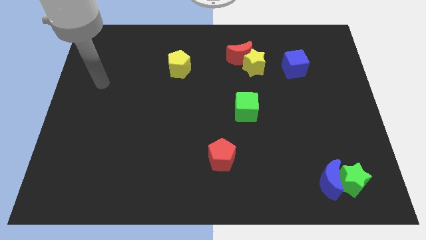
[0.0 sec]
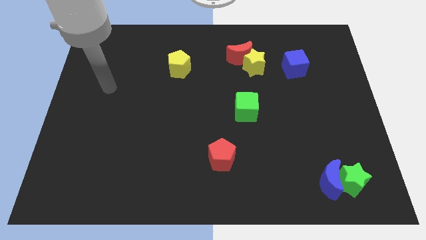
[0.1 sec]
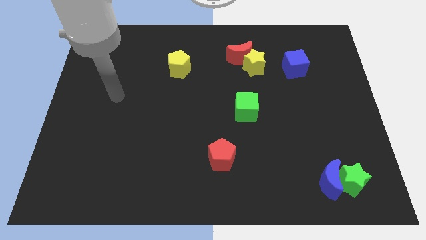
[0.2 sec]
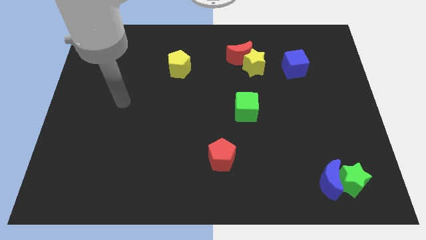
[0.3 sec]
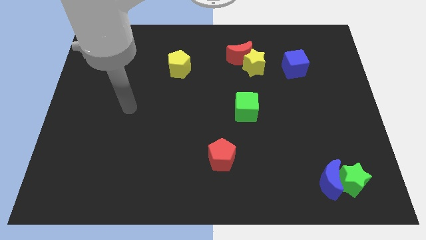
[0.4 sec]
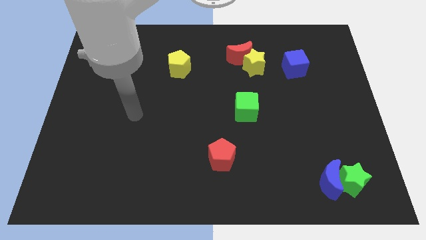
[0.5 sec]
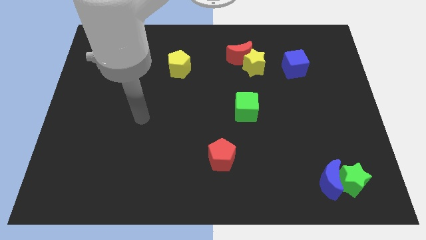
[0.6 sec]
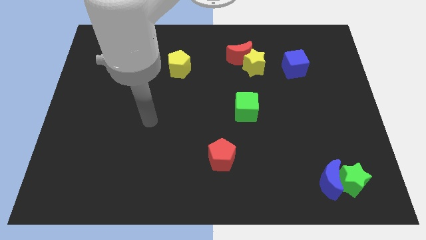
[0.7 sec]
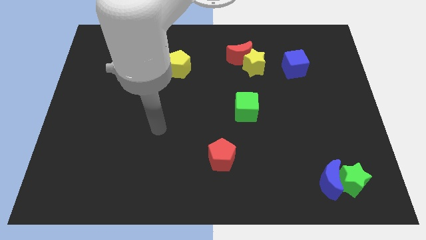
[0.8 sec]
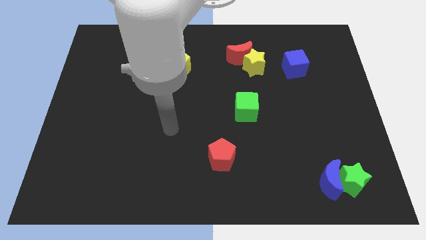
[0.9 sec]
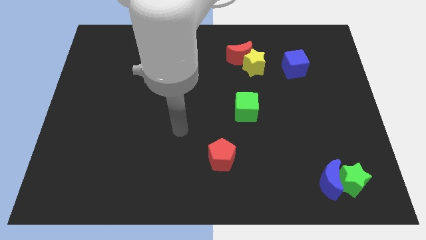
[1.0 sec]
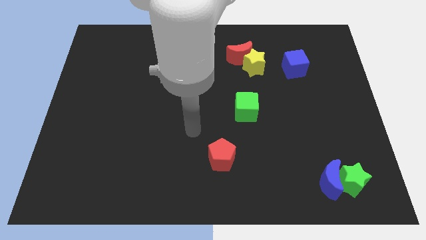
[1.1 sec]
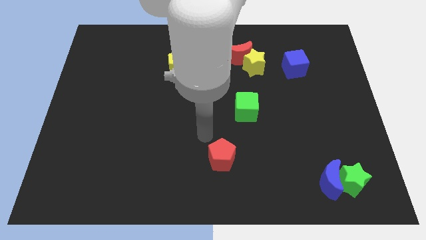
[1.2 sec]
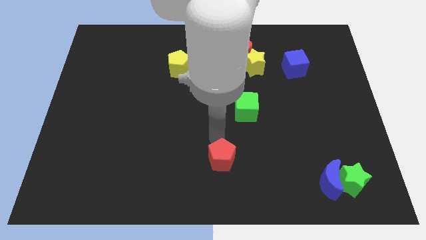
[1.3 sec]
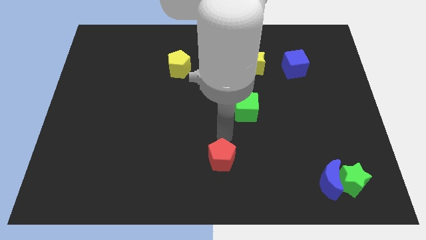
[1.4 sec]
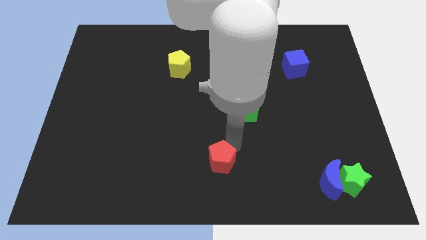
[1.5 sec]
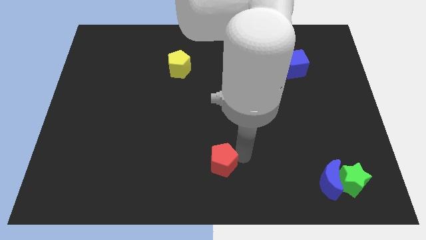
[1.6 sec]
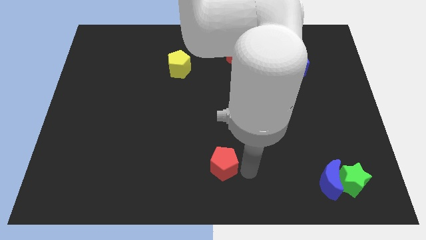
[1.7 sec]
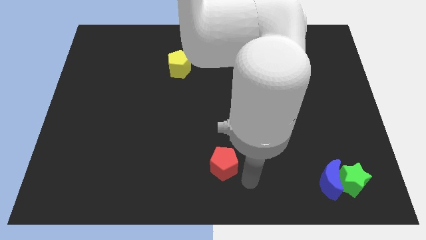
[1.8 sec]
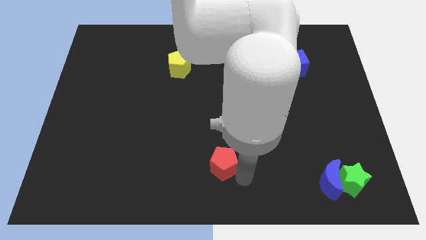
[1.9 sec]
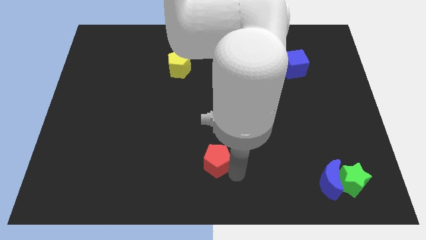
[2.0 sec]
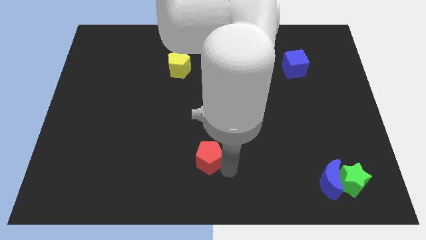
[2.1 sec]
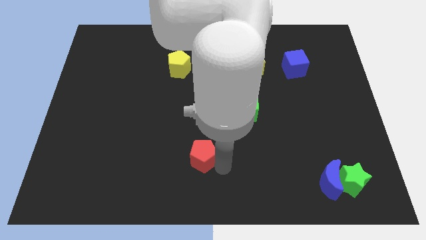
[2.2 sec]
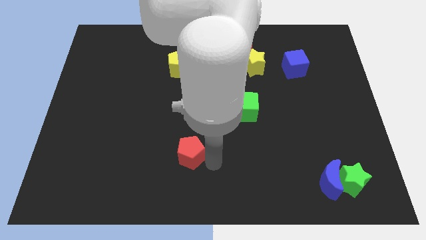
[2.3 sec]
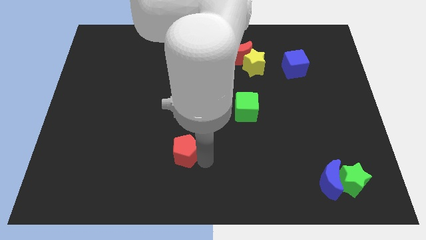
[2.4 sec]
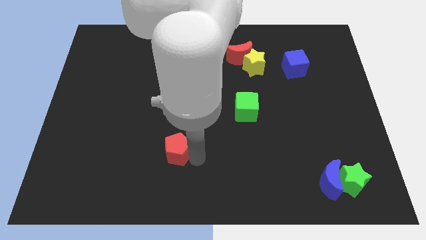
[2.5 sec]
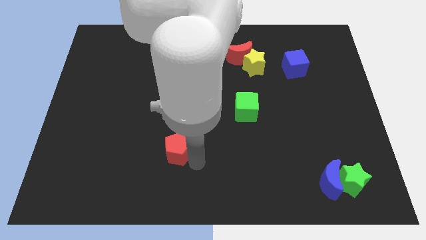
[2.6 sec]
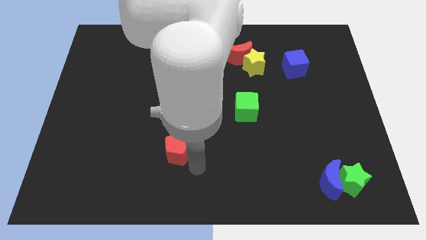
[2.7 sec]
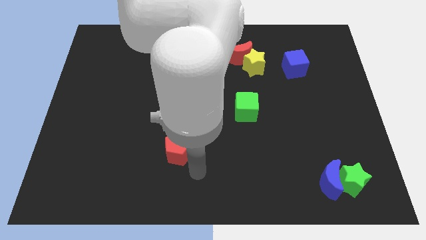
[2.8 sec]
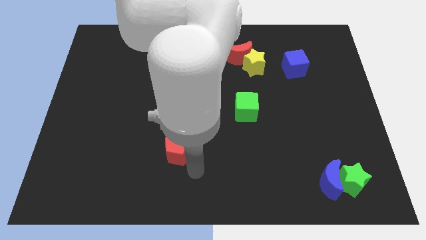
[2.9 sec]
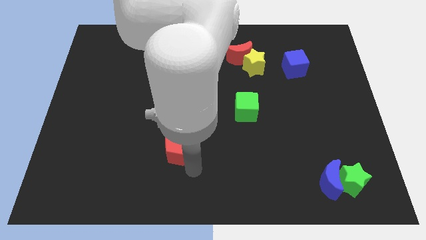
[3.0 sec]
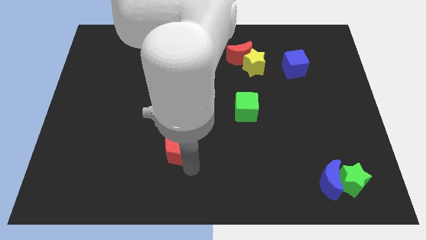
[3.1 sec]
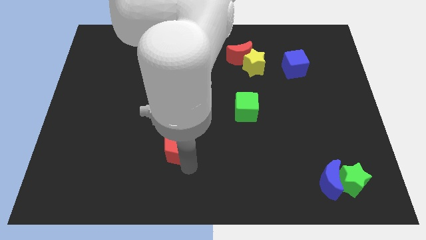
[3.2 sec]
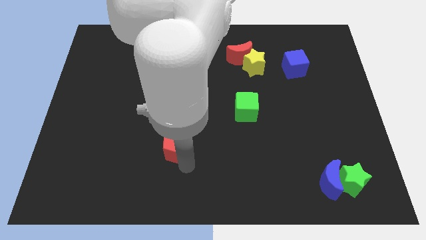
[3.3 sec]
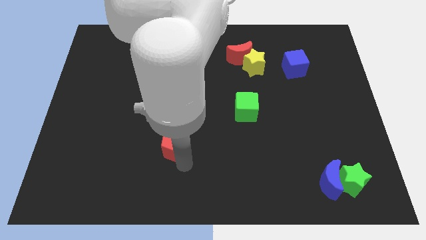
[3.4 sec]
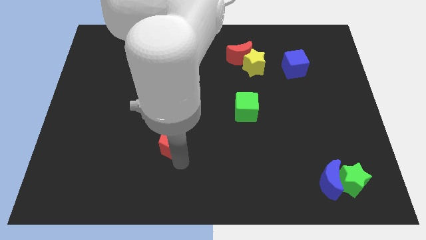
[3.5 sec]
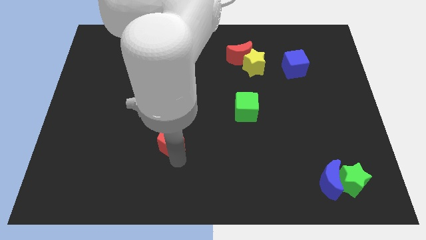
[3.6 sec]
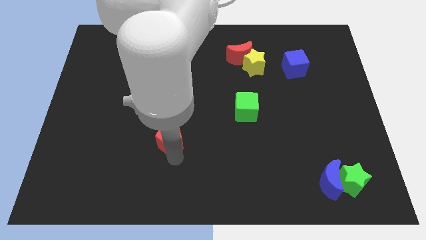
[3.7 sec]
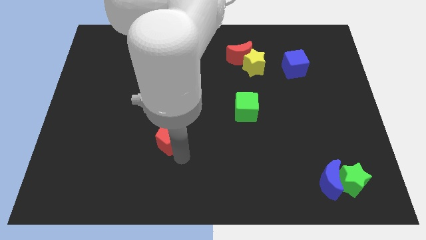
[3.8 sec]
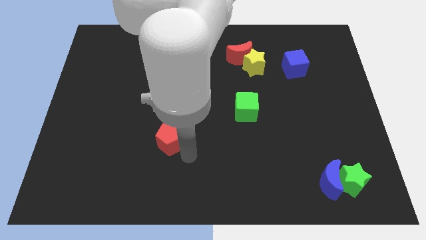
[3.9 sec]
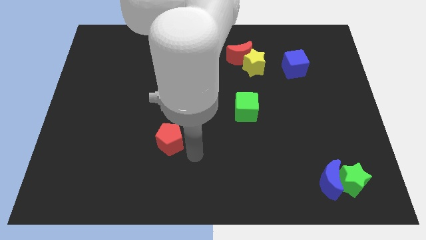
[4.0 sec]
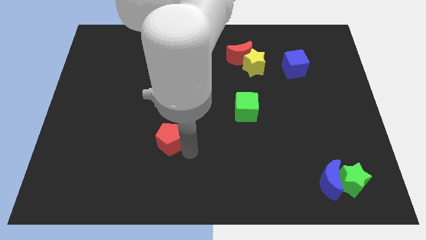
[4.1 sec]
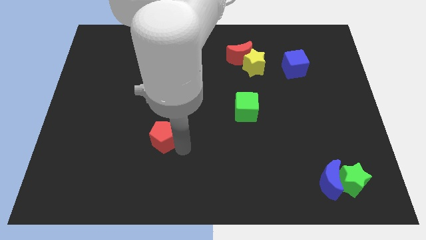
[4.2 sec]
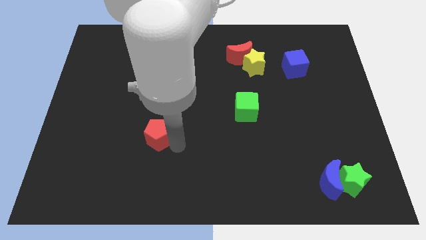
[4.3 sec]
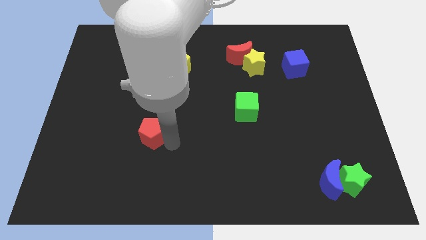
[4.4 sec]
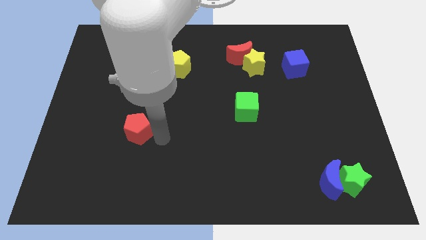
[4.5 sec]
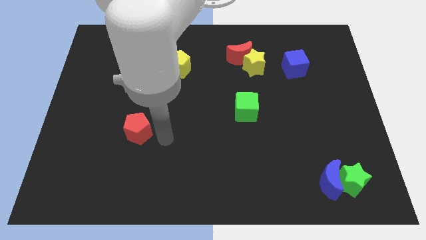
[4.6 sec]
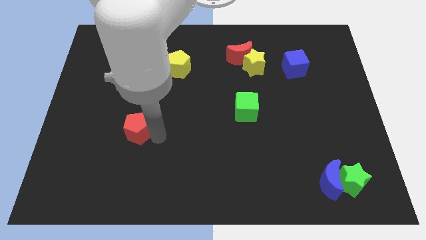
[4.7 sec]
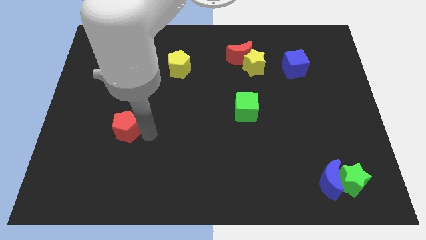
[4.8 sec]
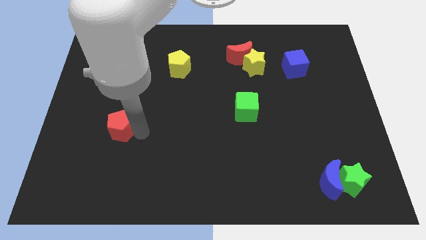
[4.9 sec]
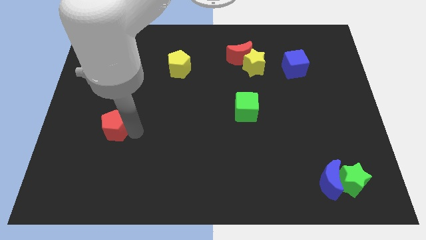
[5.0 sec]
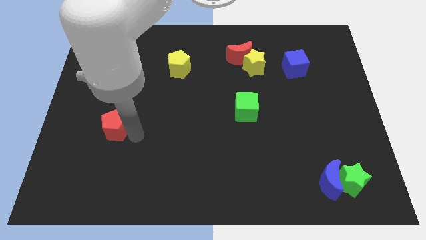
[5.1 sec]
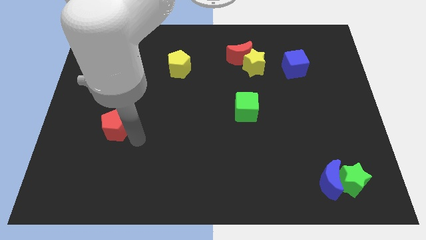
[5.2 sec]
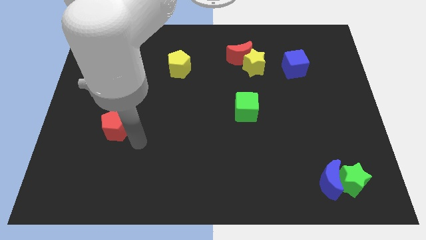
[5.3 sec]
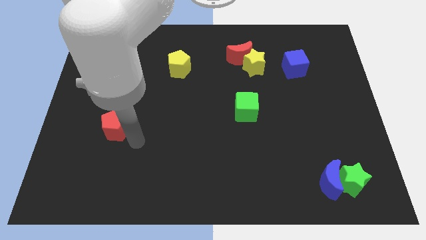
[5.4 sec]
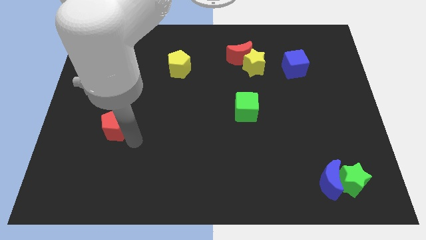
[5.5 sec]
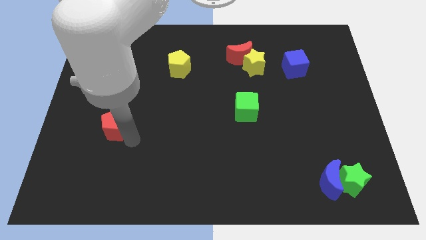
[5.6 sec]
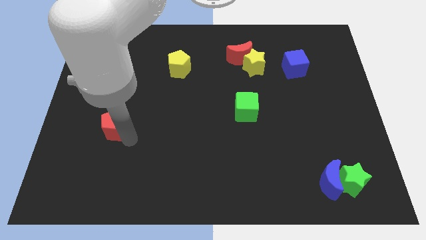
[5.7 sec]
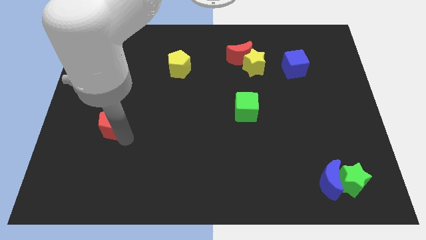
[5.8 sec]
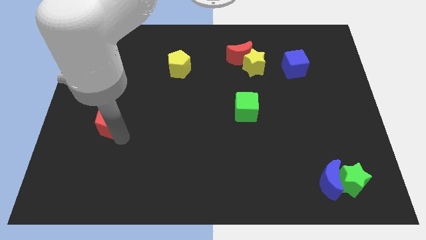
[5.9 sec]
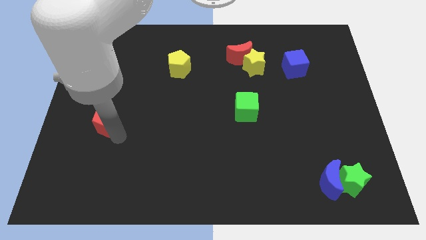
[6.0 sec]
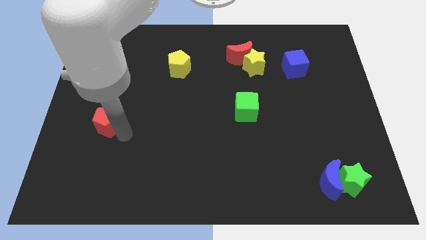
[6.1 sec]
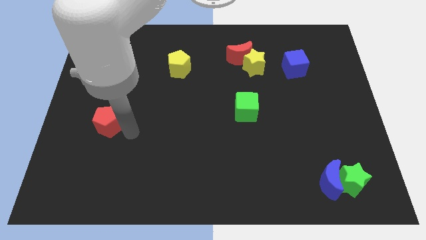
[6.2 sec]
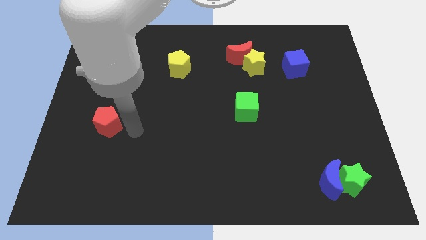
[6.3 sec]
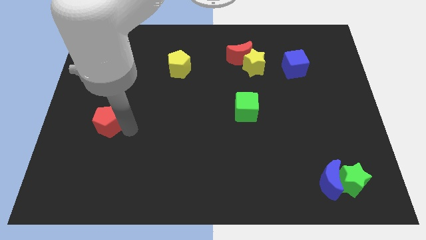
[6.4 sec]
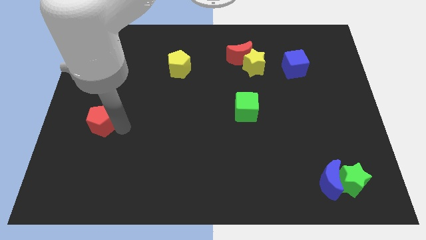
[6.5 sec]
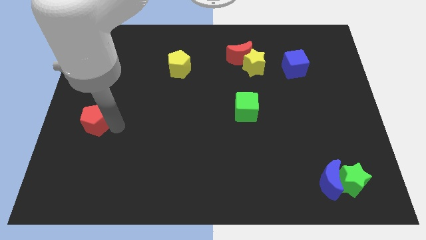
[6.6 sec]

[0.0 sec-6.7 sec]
push the red pentagon to the left side of the board

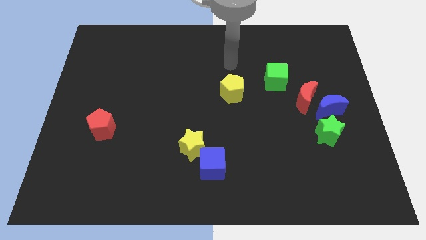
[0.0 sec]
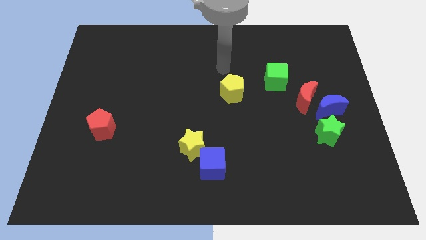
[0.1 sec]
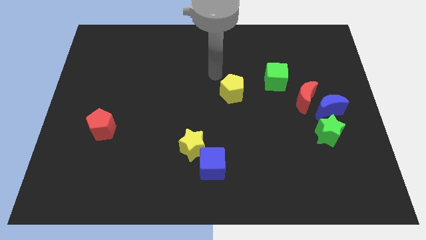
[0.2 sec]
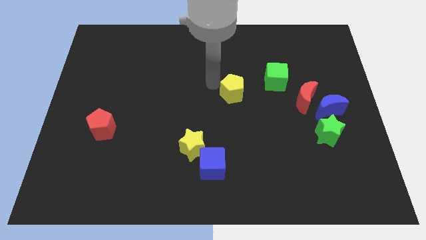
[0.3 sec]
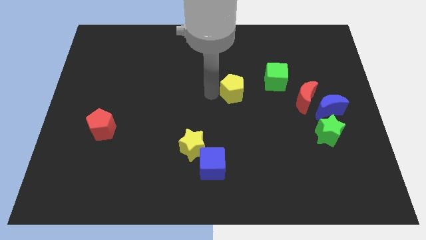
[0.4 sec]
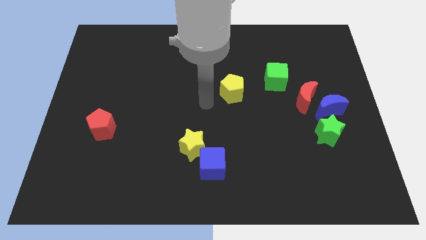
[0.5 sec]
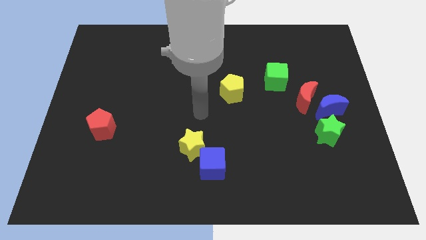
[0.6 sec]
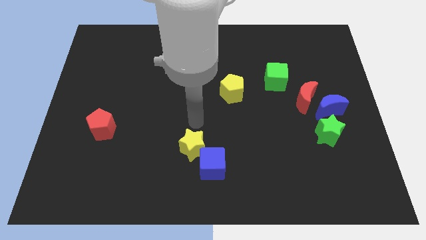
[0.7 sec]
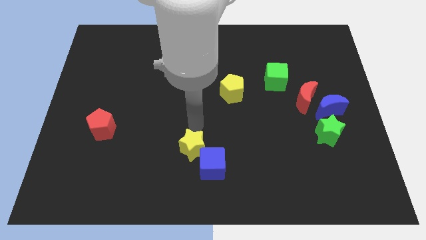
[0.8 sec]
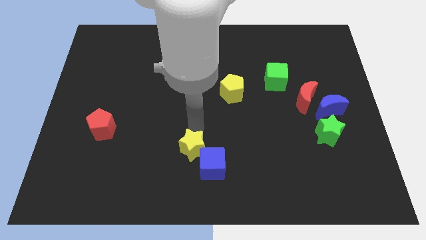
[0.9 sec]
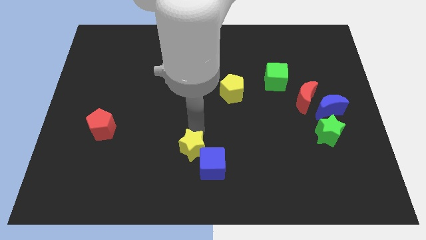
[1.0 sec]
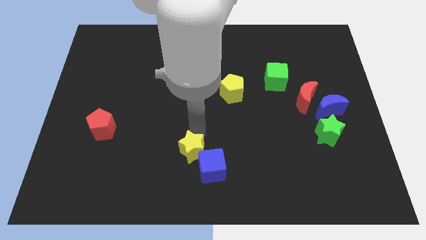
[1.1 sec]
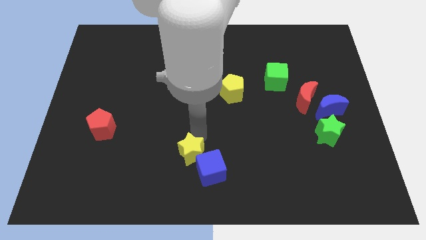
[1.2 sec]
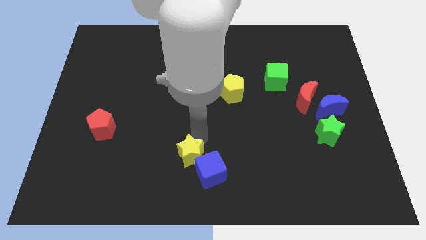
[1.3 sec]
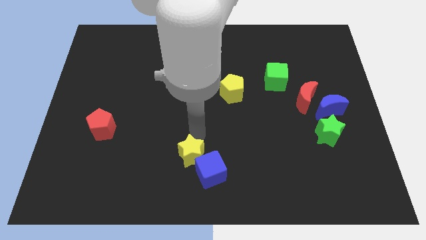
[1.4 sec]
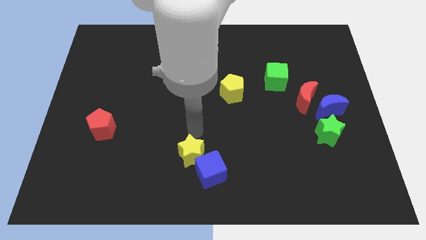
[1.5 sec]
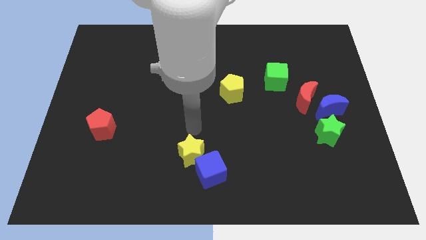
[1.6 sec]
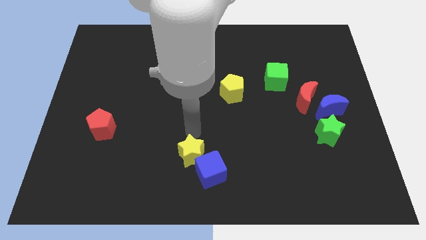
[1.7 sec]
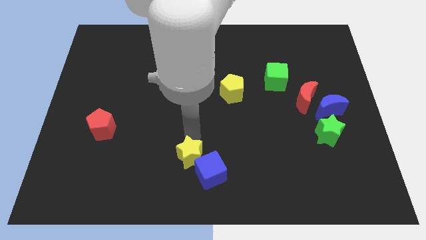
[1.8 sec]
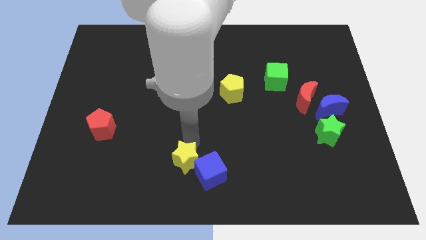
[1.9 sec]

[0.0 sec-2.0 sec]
put the yellow star to the bottom
